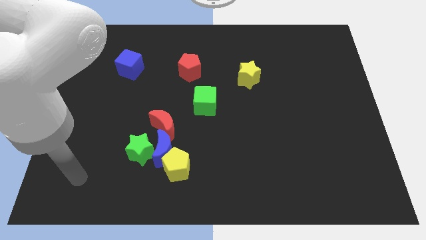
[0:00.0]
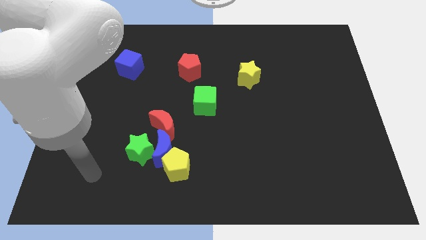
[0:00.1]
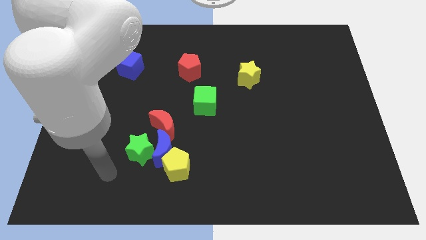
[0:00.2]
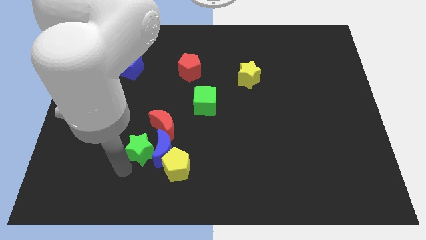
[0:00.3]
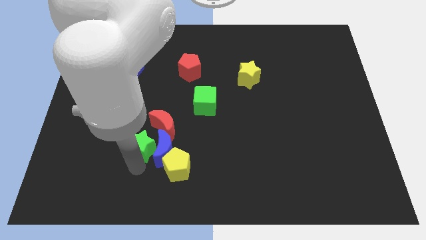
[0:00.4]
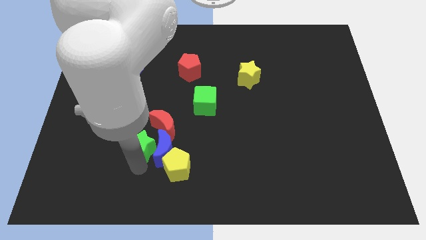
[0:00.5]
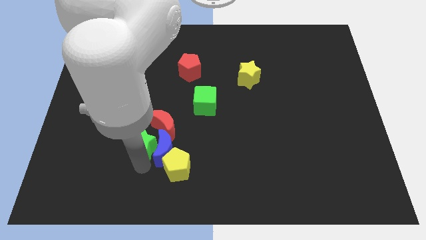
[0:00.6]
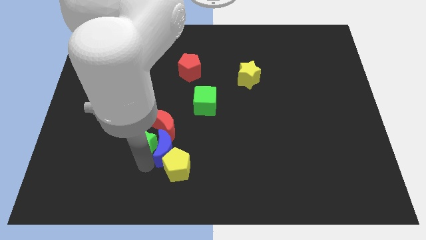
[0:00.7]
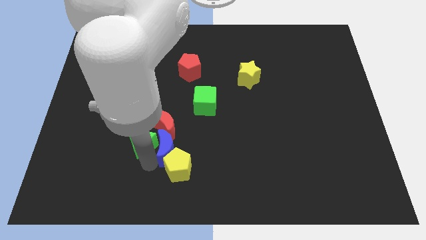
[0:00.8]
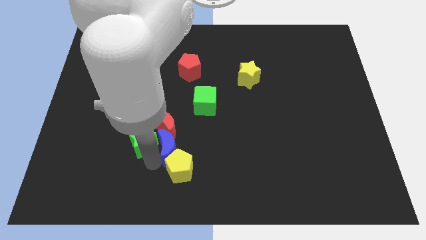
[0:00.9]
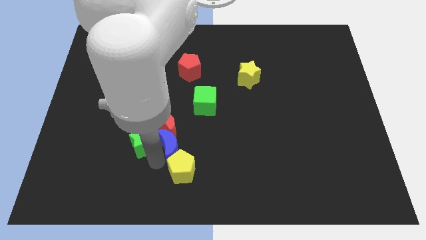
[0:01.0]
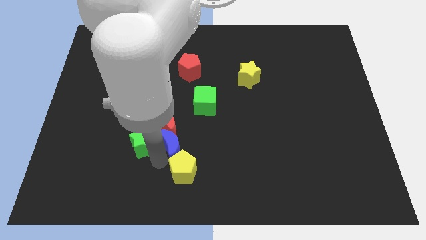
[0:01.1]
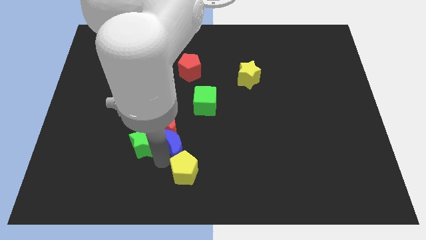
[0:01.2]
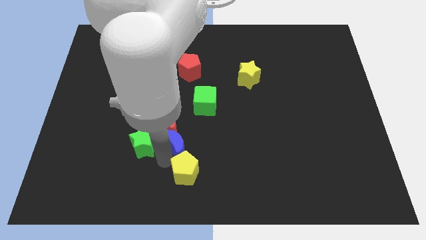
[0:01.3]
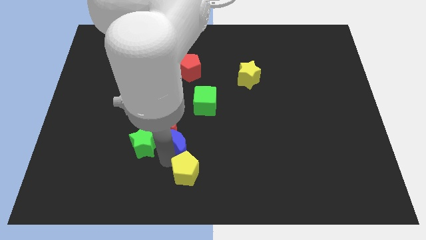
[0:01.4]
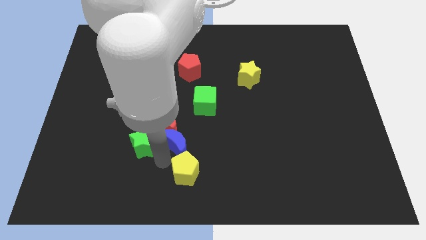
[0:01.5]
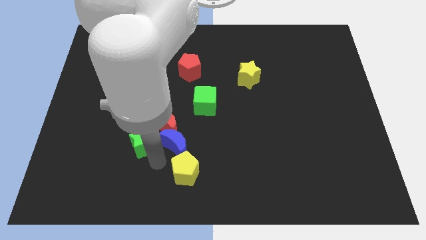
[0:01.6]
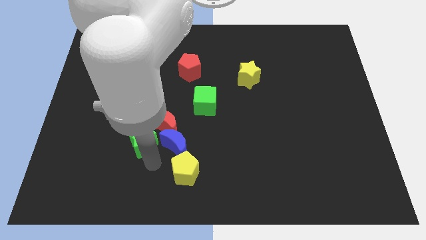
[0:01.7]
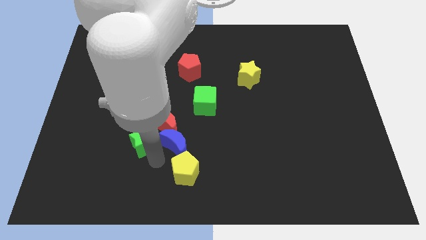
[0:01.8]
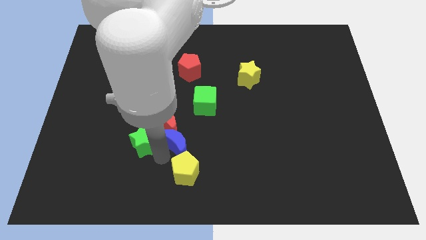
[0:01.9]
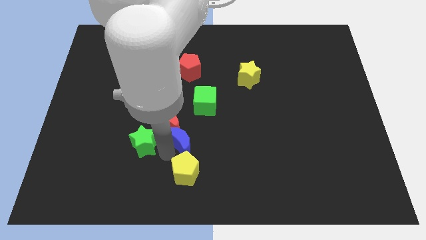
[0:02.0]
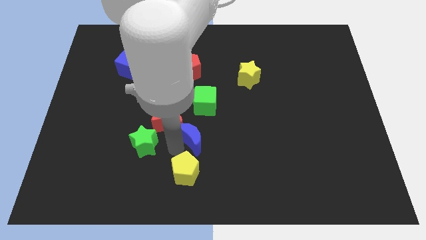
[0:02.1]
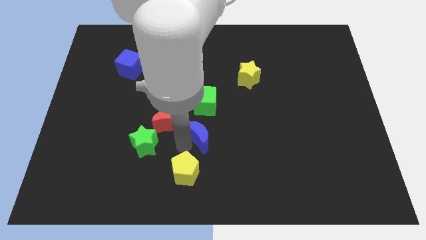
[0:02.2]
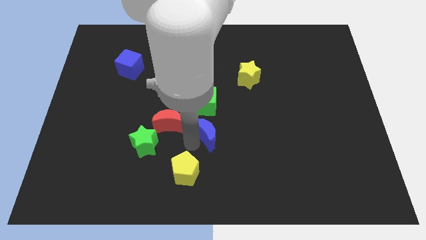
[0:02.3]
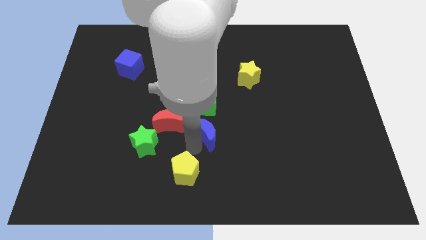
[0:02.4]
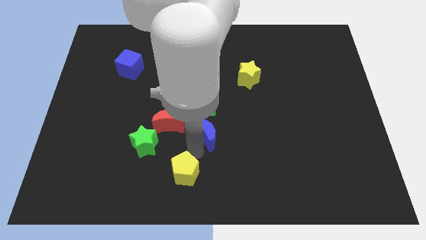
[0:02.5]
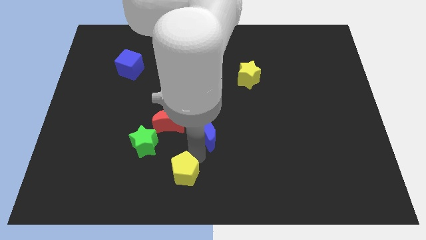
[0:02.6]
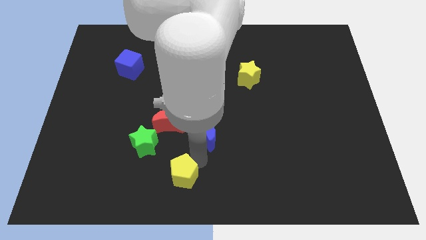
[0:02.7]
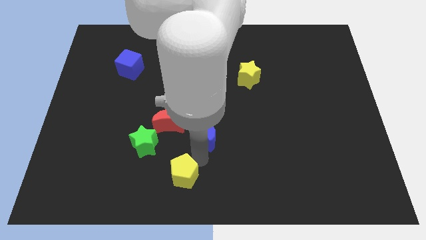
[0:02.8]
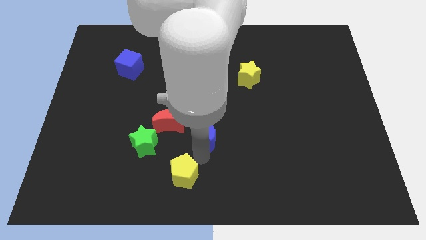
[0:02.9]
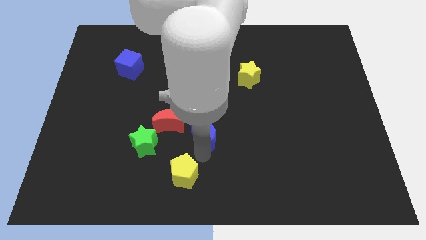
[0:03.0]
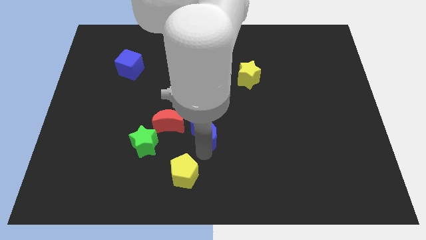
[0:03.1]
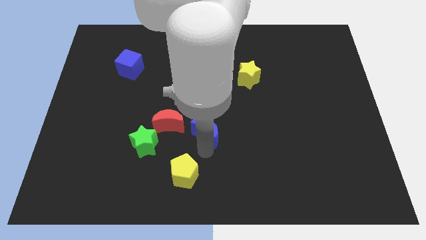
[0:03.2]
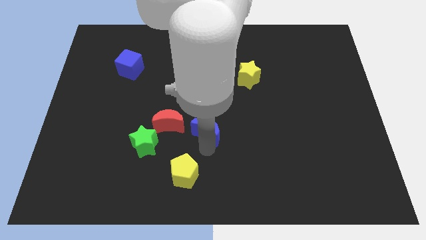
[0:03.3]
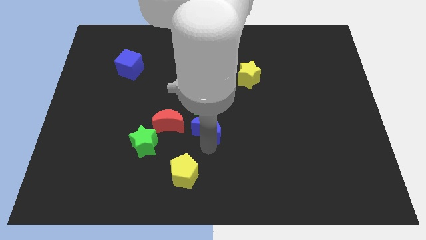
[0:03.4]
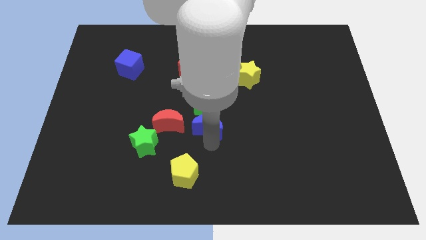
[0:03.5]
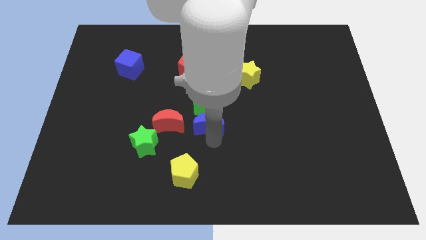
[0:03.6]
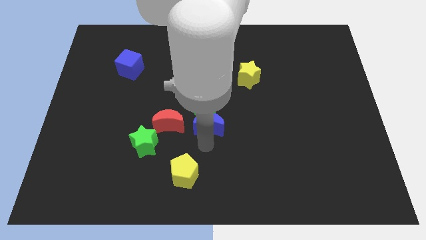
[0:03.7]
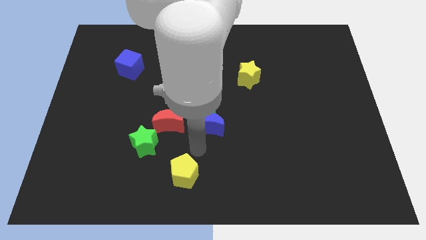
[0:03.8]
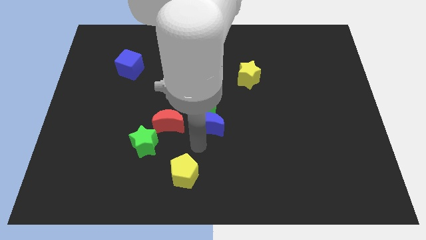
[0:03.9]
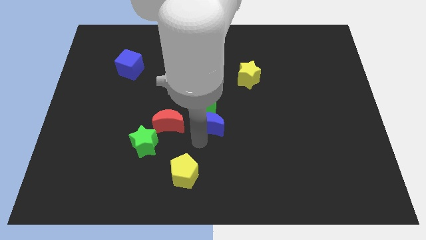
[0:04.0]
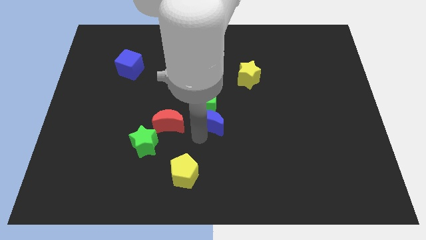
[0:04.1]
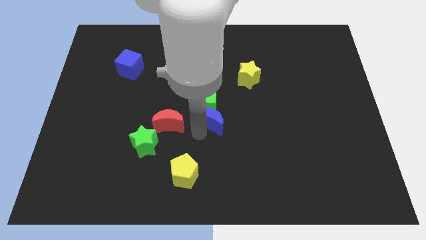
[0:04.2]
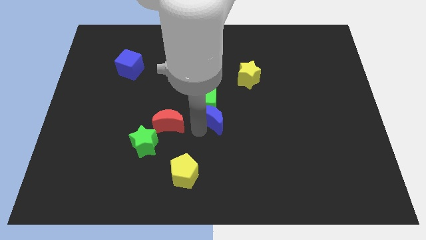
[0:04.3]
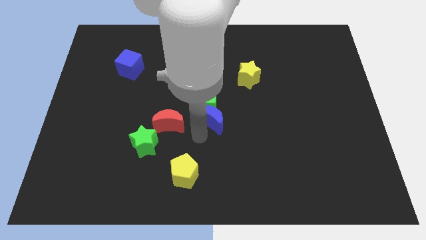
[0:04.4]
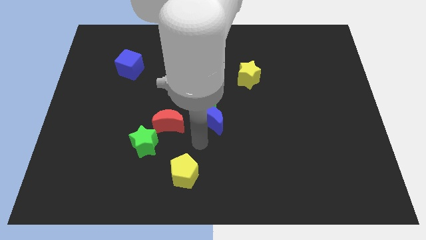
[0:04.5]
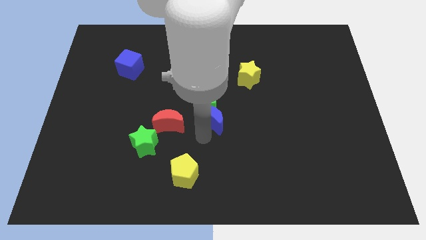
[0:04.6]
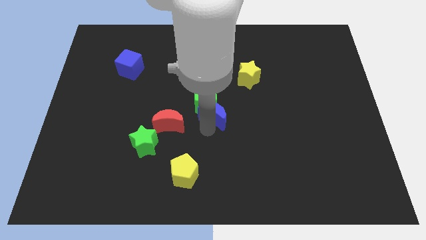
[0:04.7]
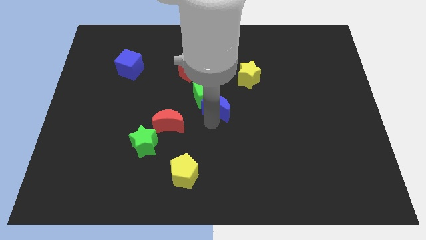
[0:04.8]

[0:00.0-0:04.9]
push the blue moon diagonally down and to the left of the yellow star

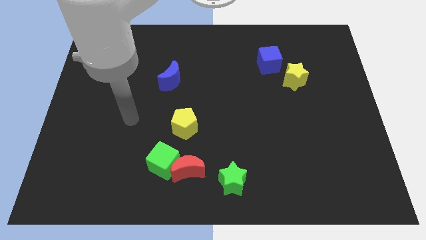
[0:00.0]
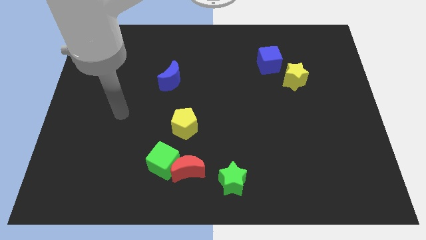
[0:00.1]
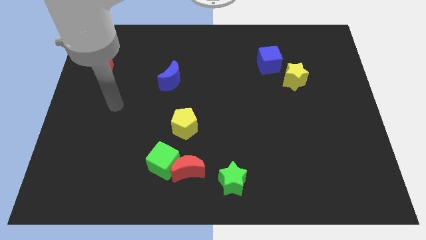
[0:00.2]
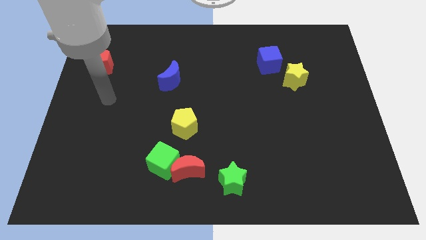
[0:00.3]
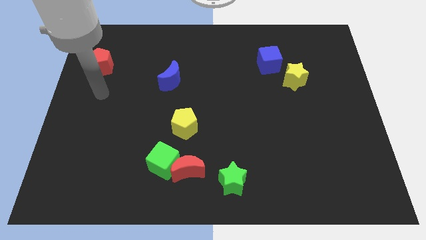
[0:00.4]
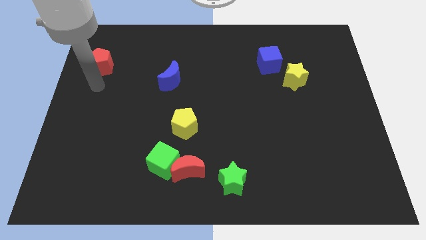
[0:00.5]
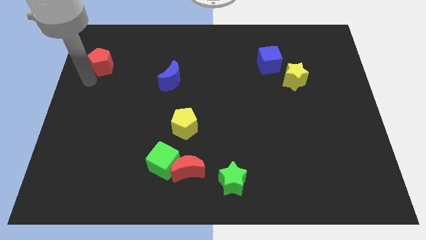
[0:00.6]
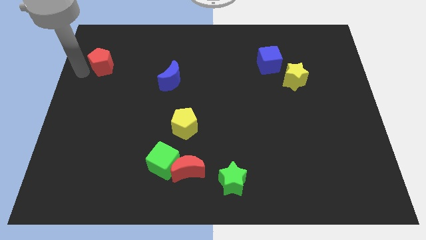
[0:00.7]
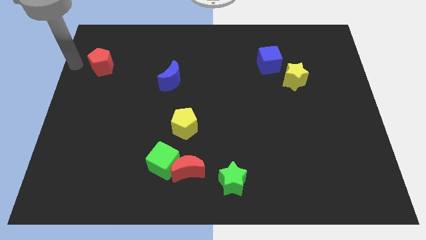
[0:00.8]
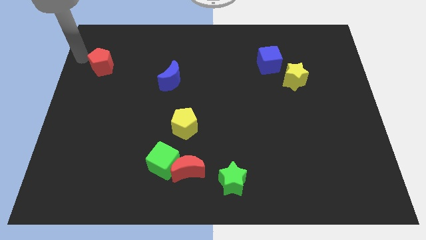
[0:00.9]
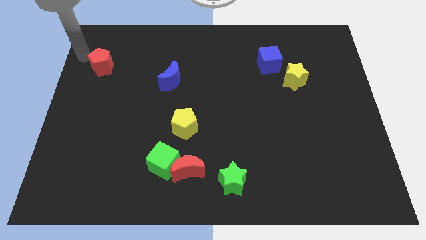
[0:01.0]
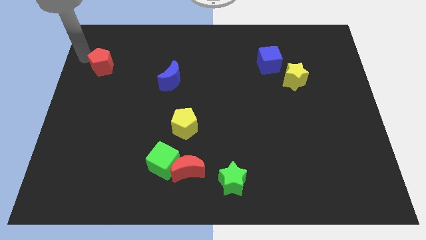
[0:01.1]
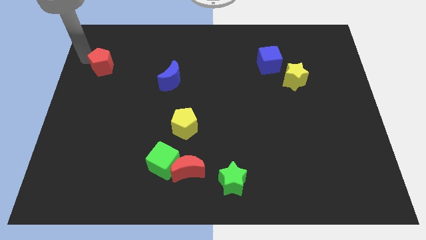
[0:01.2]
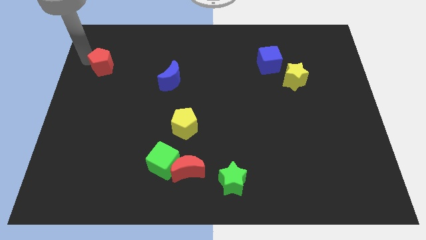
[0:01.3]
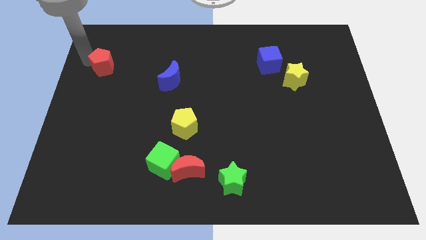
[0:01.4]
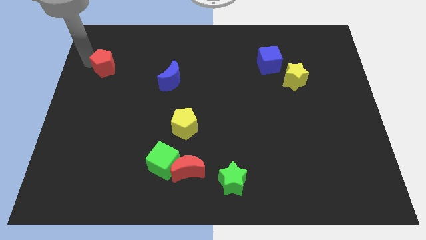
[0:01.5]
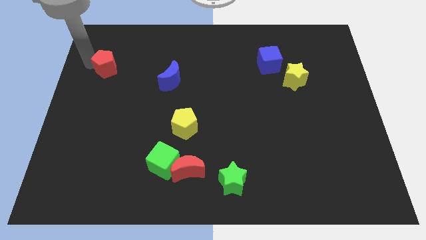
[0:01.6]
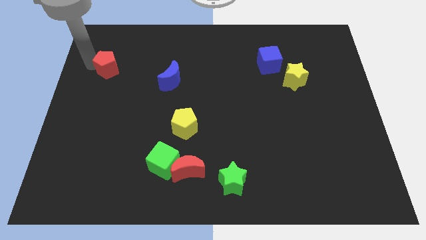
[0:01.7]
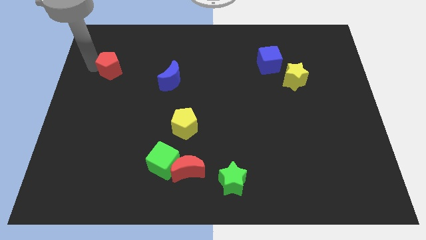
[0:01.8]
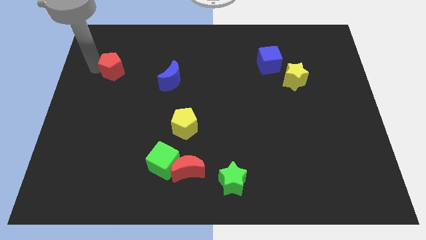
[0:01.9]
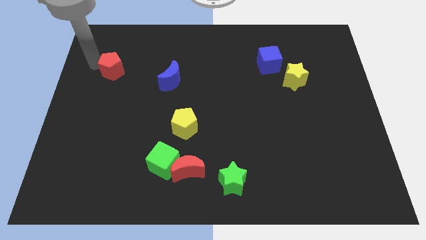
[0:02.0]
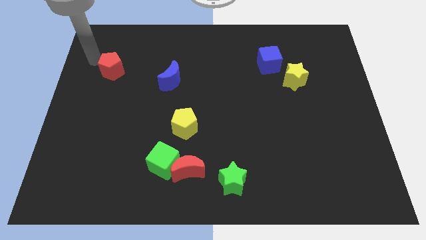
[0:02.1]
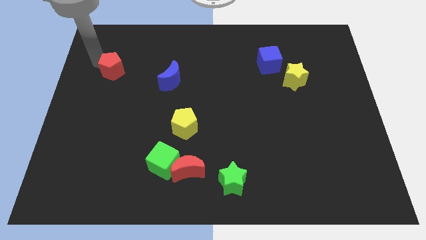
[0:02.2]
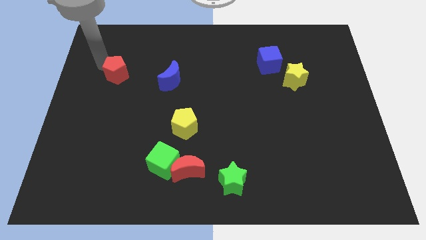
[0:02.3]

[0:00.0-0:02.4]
put the red pentagon to the left of the blue moon
